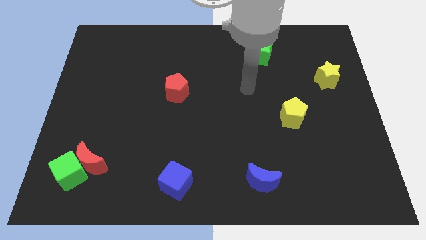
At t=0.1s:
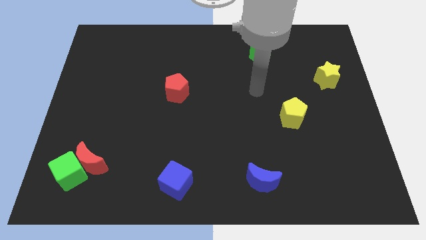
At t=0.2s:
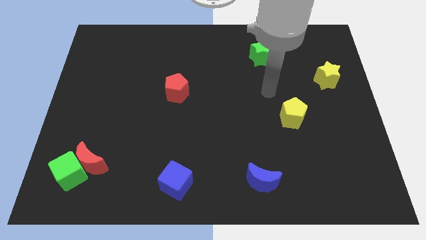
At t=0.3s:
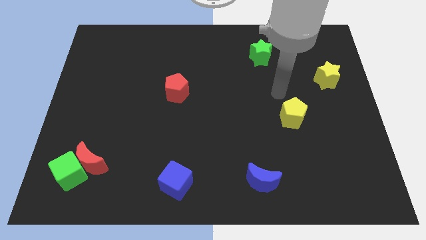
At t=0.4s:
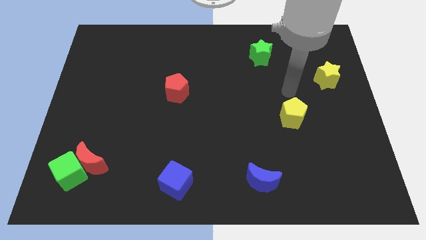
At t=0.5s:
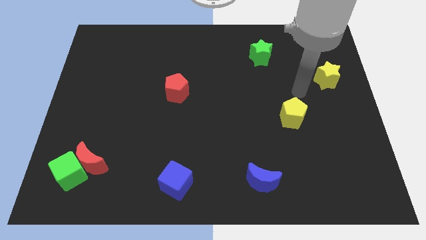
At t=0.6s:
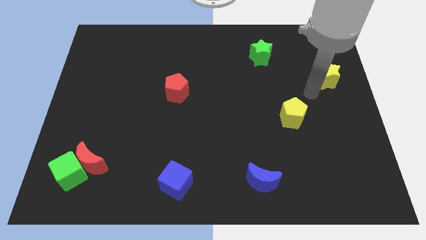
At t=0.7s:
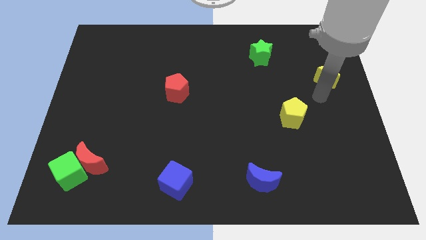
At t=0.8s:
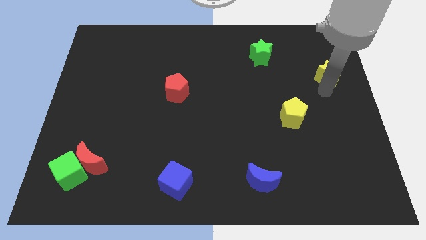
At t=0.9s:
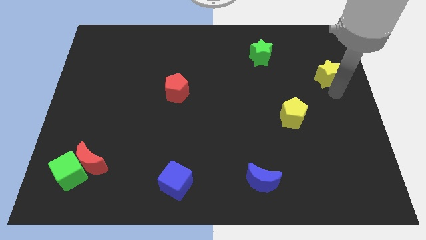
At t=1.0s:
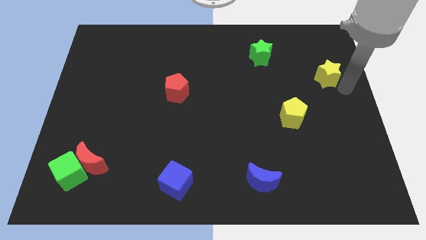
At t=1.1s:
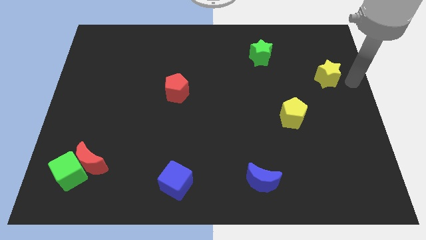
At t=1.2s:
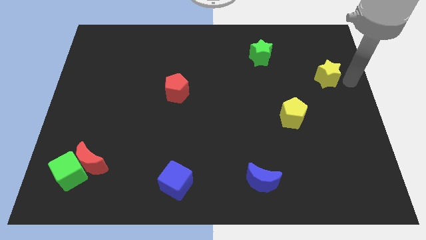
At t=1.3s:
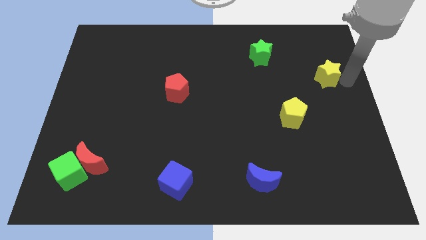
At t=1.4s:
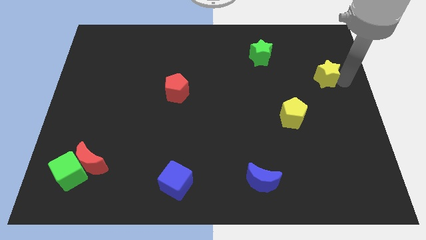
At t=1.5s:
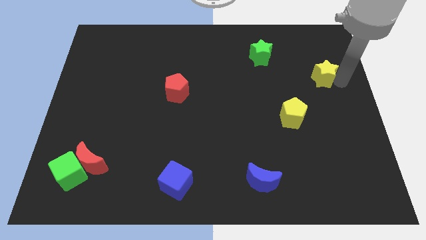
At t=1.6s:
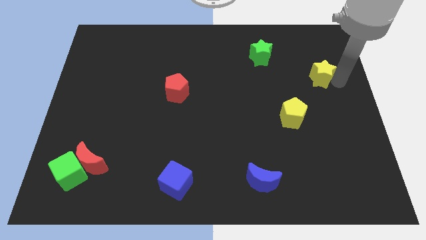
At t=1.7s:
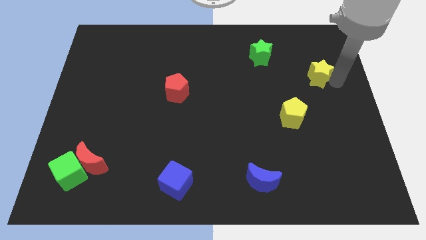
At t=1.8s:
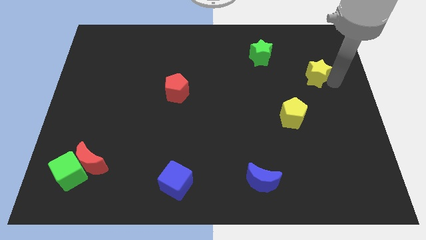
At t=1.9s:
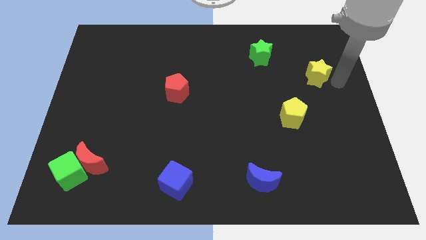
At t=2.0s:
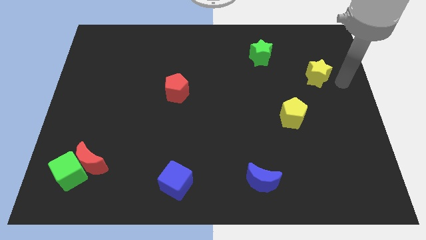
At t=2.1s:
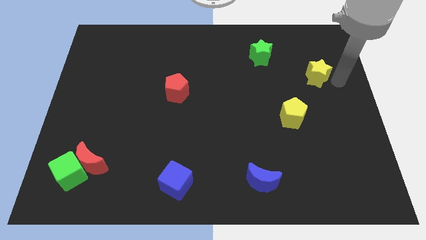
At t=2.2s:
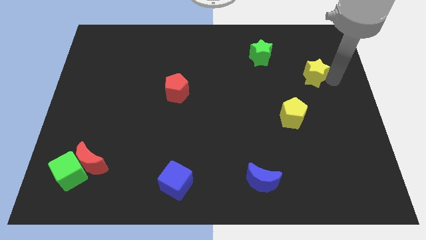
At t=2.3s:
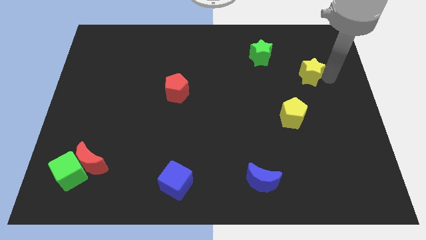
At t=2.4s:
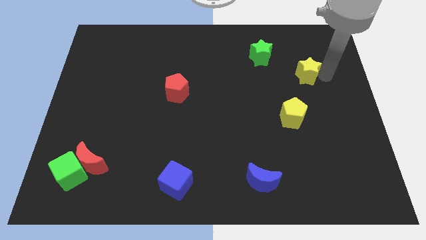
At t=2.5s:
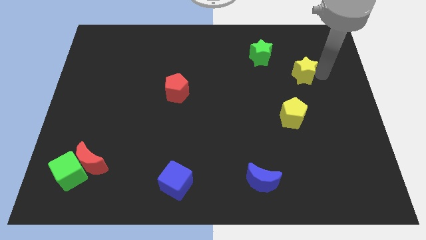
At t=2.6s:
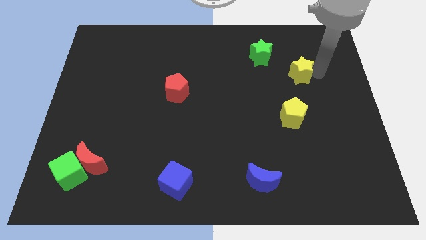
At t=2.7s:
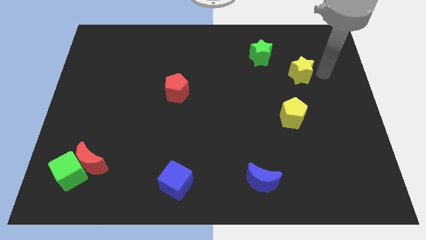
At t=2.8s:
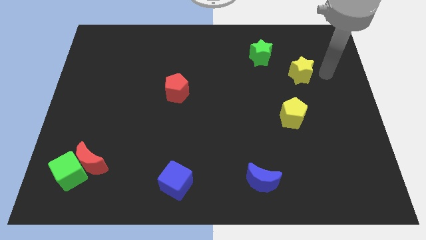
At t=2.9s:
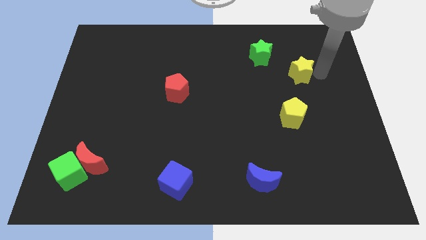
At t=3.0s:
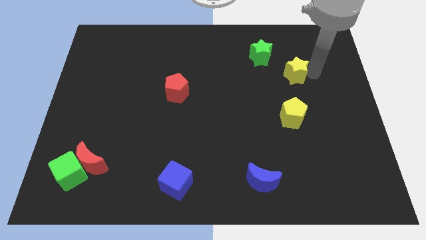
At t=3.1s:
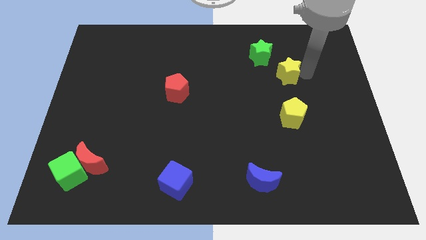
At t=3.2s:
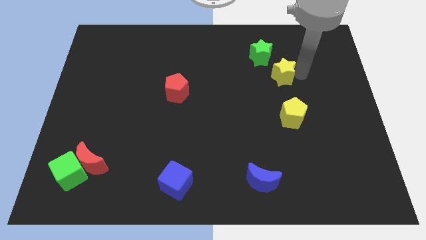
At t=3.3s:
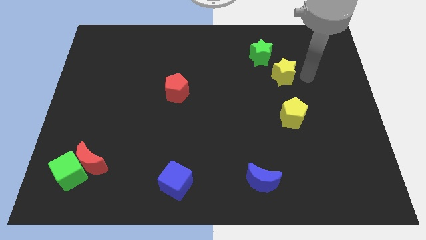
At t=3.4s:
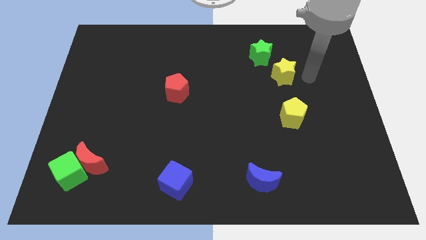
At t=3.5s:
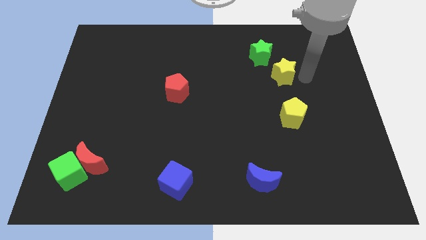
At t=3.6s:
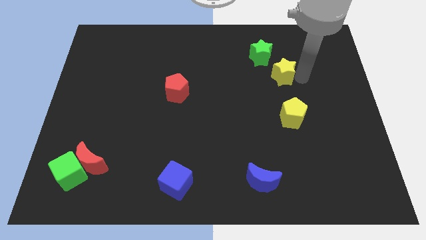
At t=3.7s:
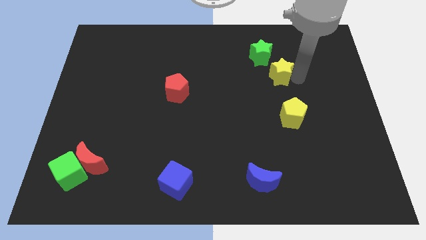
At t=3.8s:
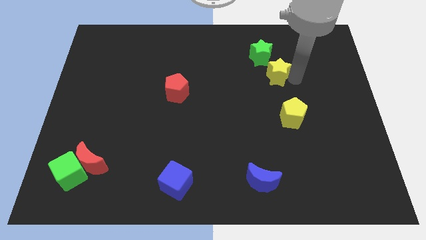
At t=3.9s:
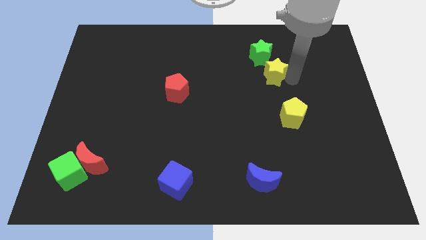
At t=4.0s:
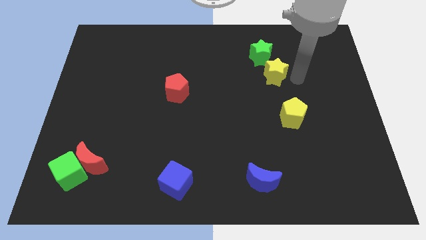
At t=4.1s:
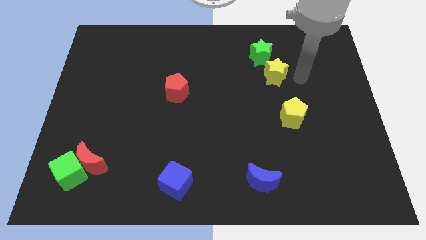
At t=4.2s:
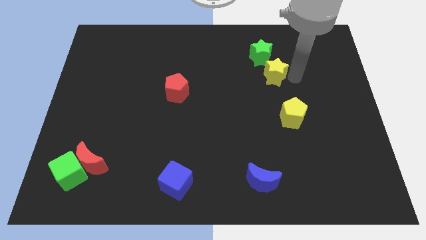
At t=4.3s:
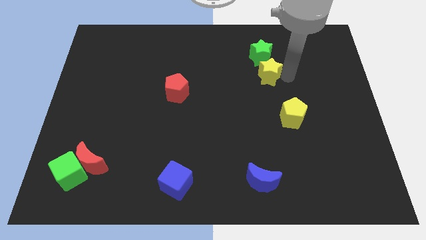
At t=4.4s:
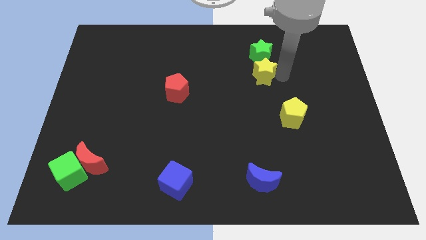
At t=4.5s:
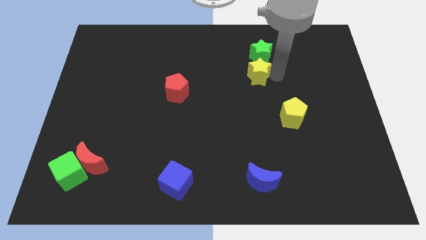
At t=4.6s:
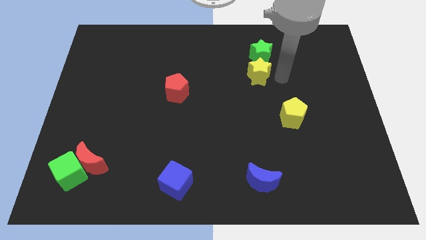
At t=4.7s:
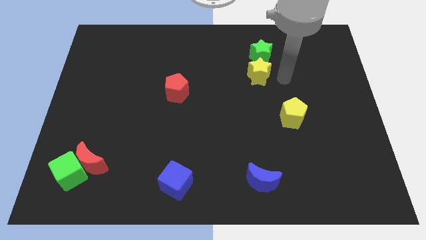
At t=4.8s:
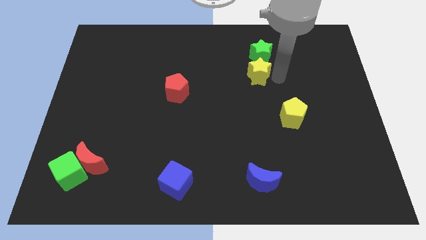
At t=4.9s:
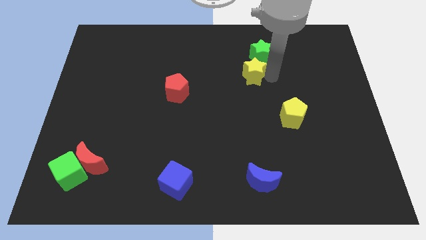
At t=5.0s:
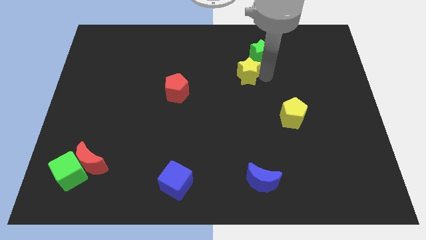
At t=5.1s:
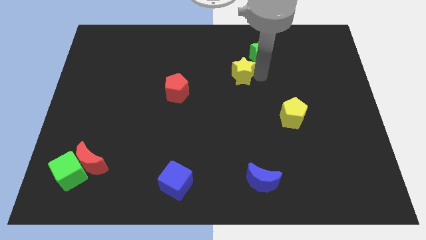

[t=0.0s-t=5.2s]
push the yellow star left

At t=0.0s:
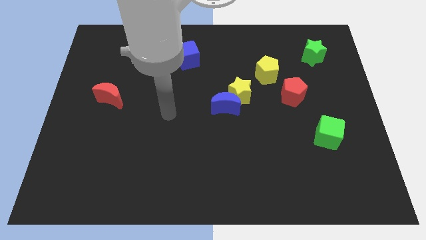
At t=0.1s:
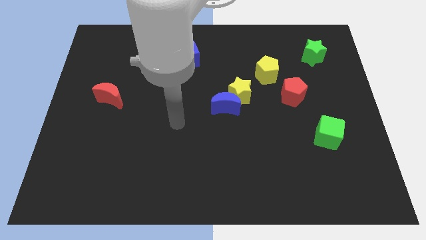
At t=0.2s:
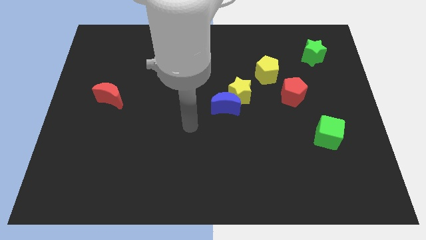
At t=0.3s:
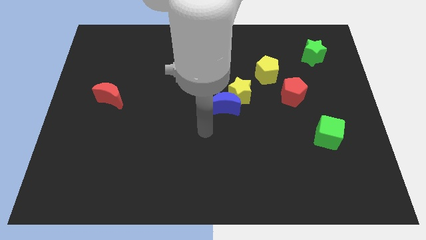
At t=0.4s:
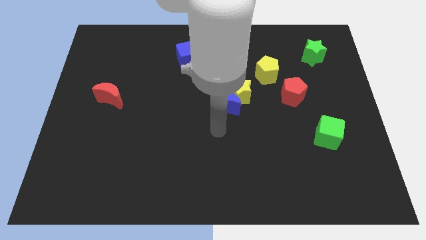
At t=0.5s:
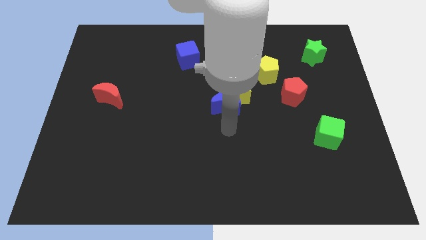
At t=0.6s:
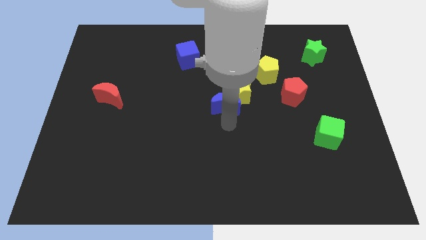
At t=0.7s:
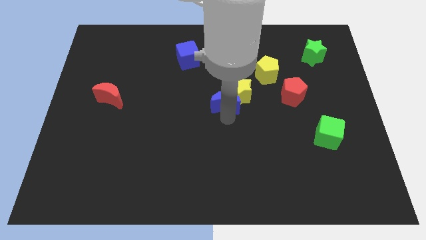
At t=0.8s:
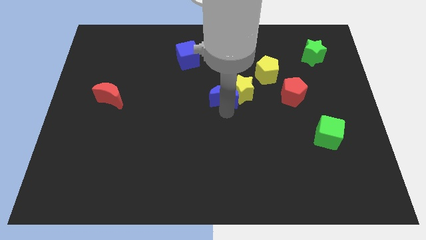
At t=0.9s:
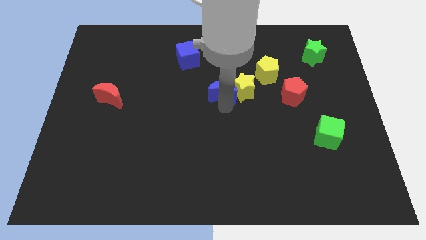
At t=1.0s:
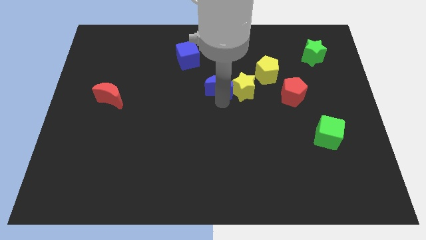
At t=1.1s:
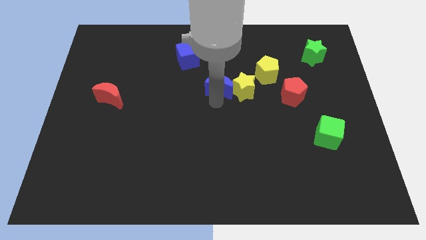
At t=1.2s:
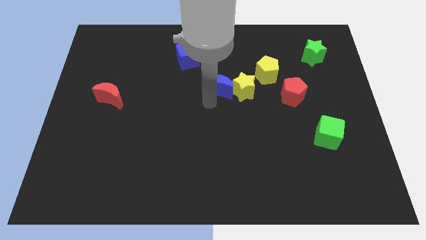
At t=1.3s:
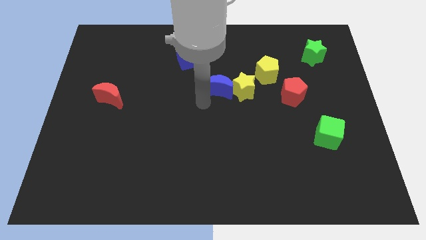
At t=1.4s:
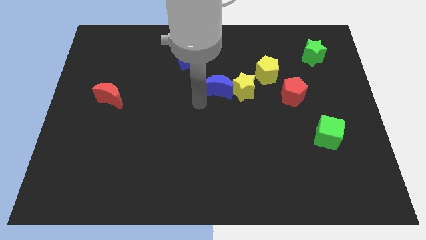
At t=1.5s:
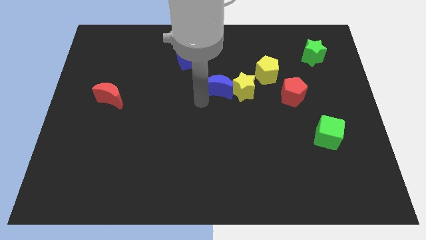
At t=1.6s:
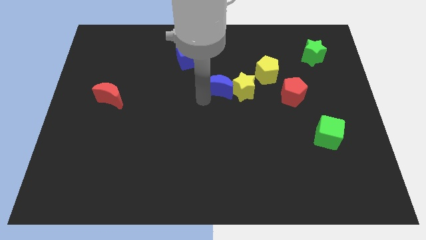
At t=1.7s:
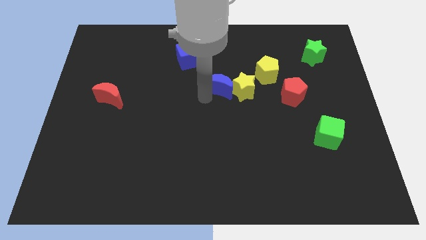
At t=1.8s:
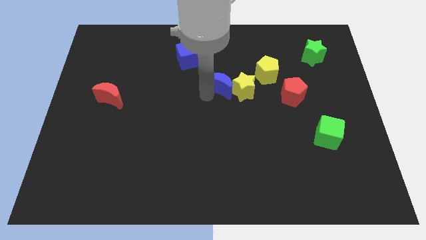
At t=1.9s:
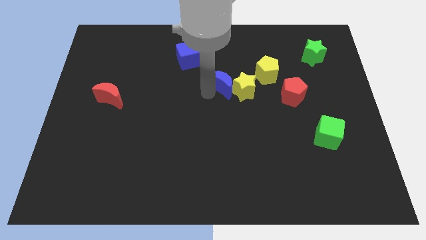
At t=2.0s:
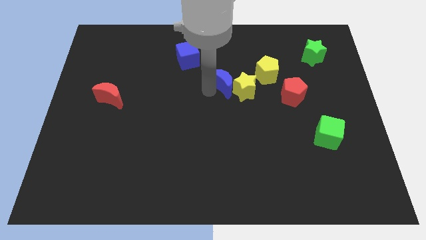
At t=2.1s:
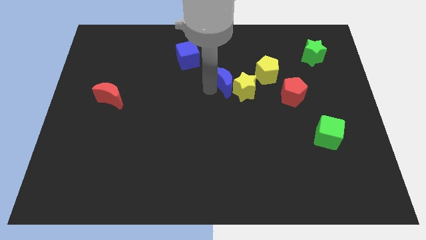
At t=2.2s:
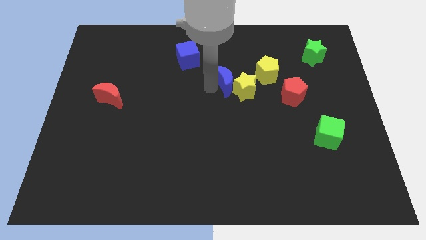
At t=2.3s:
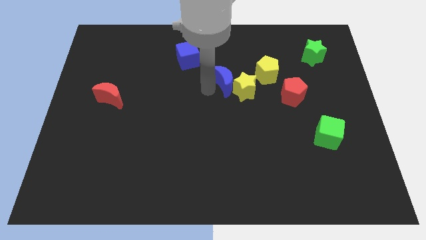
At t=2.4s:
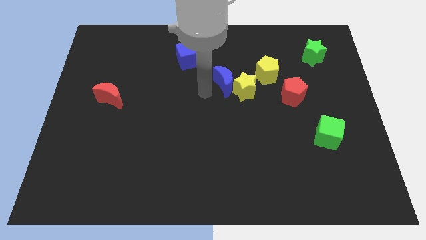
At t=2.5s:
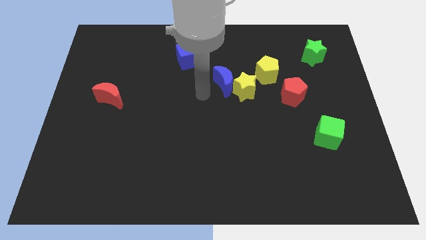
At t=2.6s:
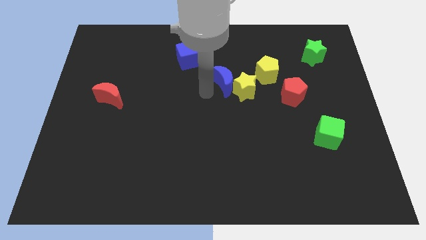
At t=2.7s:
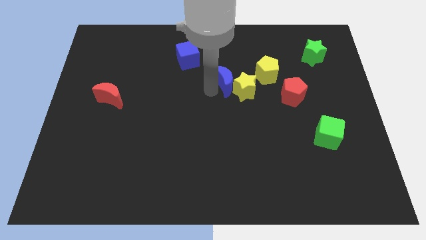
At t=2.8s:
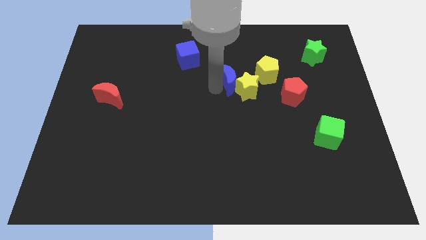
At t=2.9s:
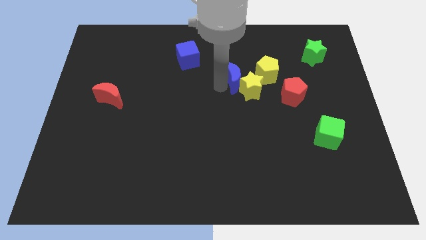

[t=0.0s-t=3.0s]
slightly slide the blue moon diagonally up and right

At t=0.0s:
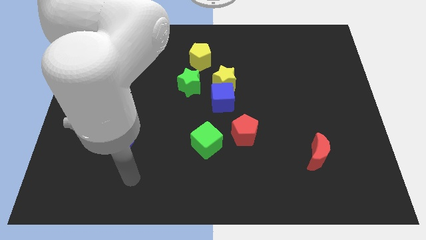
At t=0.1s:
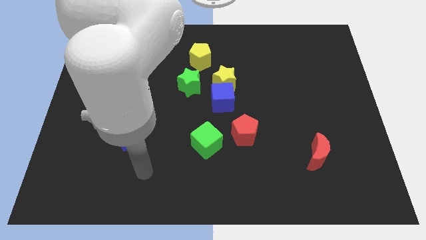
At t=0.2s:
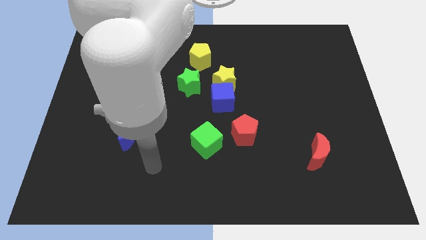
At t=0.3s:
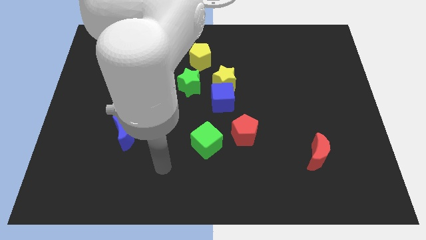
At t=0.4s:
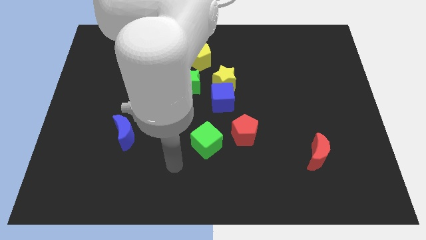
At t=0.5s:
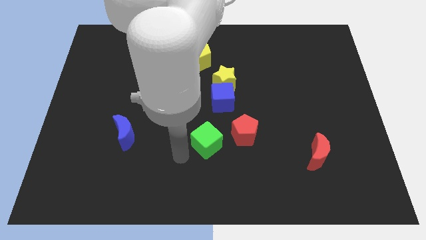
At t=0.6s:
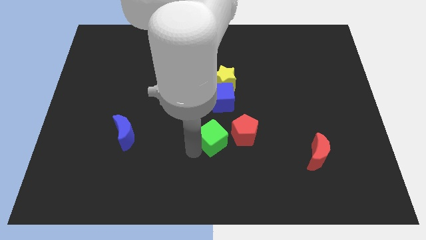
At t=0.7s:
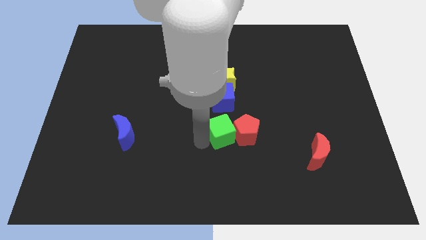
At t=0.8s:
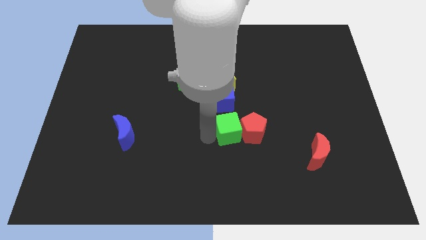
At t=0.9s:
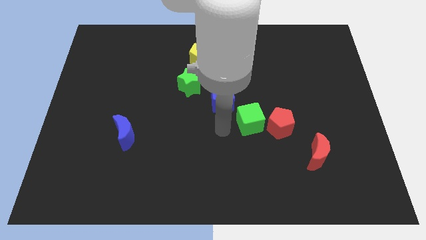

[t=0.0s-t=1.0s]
move the red pentagon a little bit to the right
